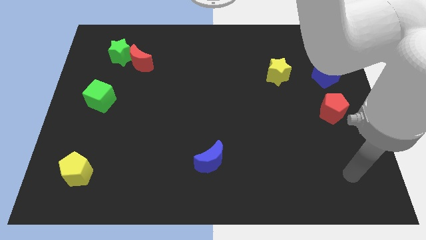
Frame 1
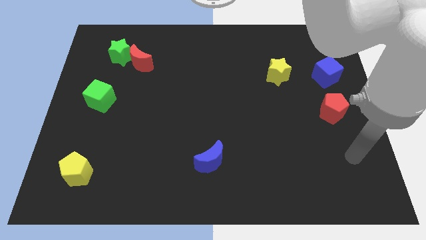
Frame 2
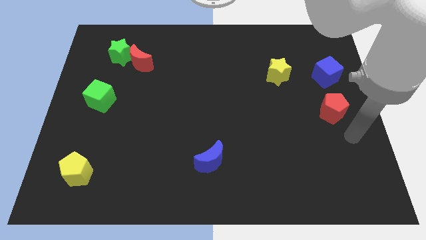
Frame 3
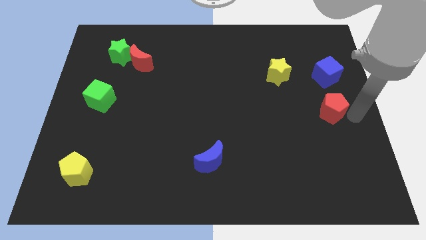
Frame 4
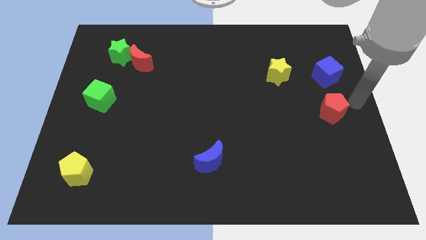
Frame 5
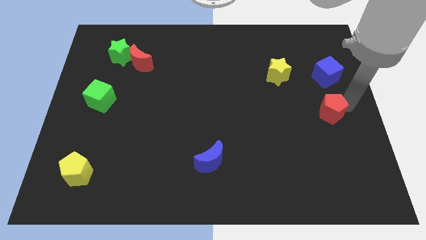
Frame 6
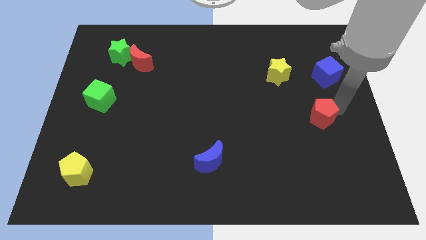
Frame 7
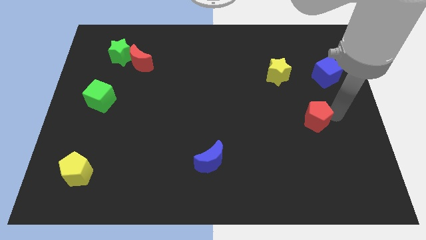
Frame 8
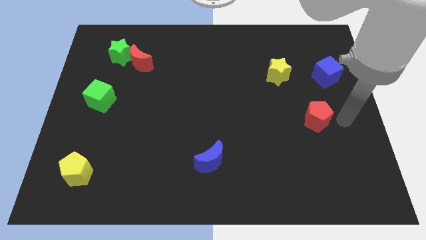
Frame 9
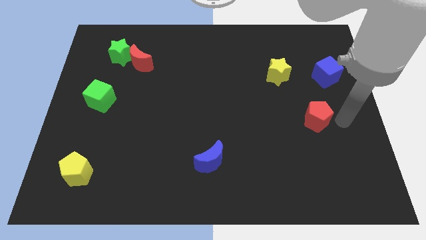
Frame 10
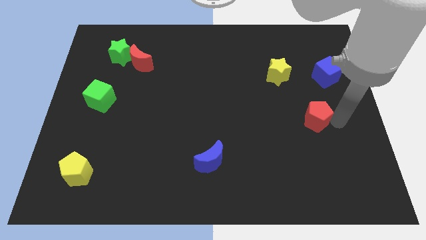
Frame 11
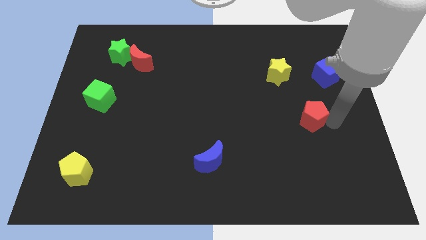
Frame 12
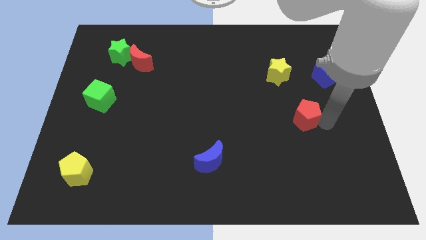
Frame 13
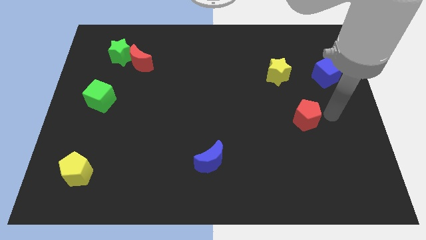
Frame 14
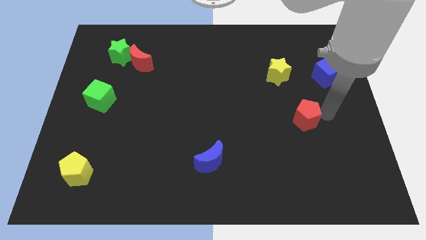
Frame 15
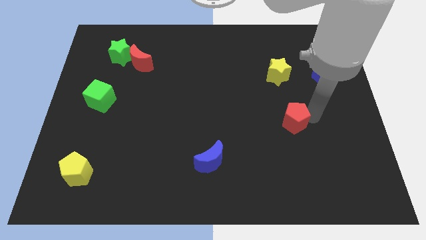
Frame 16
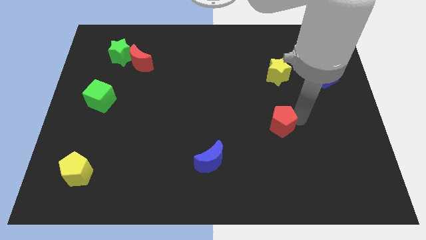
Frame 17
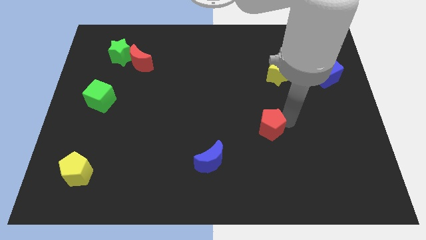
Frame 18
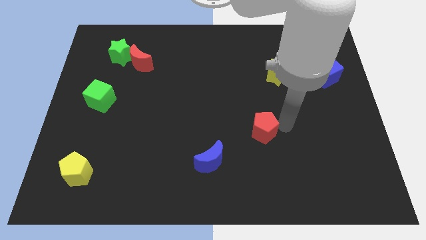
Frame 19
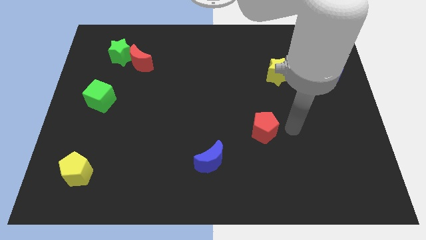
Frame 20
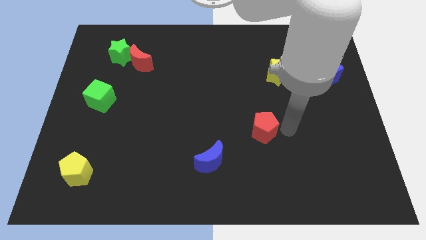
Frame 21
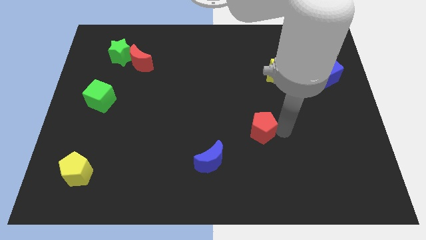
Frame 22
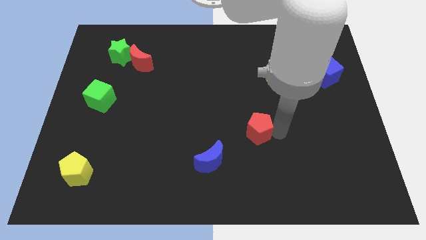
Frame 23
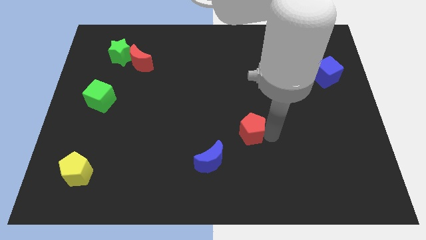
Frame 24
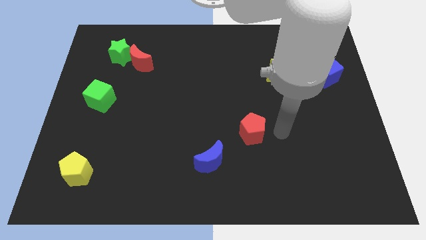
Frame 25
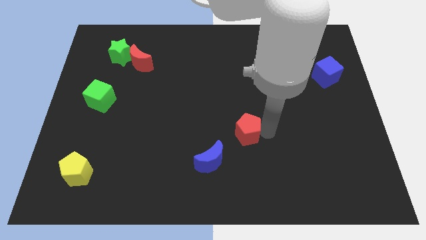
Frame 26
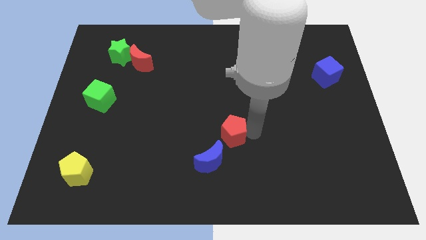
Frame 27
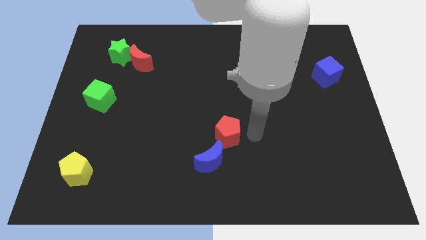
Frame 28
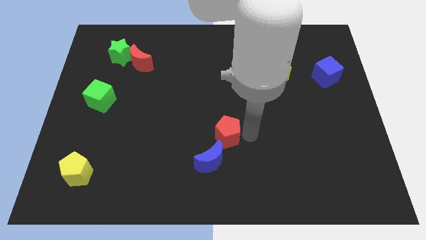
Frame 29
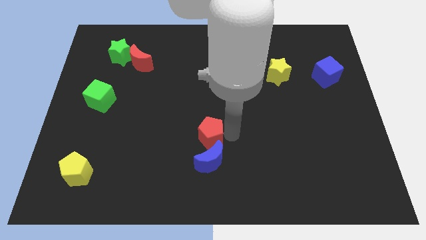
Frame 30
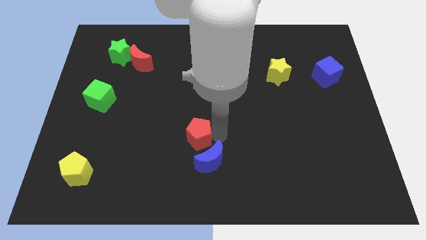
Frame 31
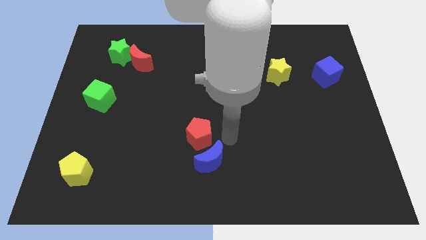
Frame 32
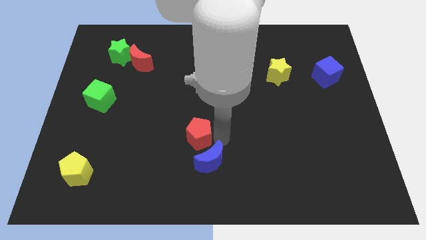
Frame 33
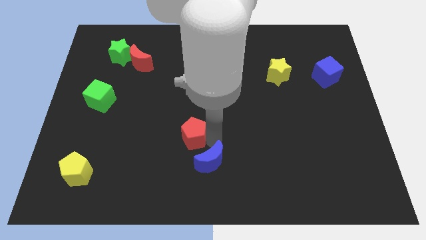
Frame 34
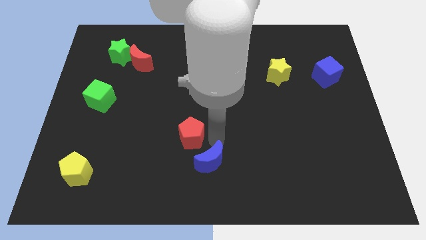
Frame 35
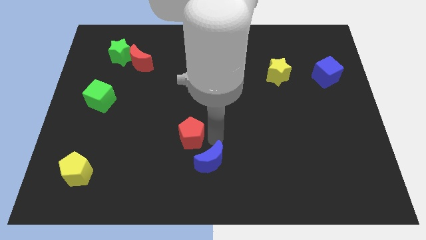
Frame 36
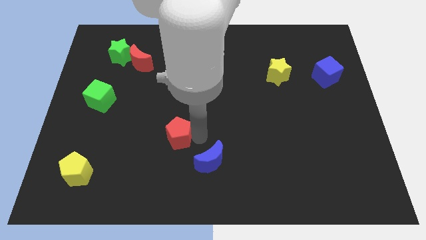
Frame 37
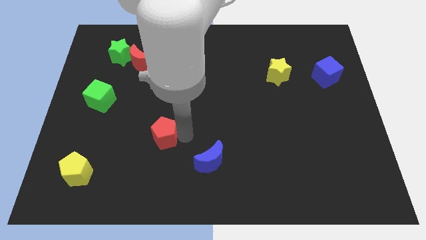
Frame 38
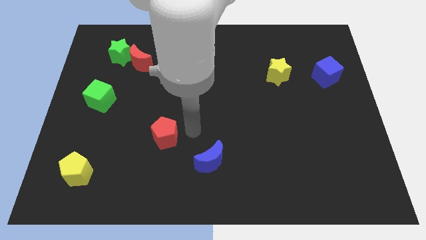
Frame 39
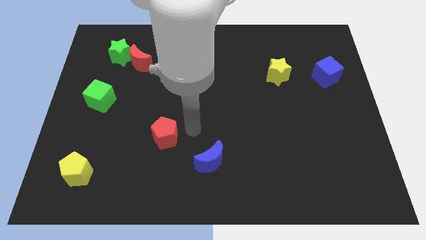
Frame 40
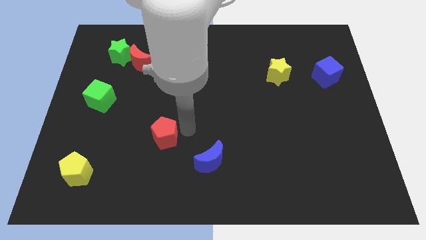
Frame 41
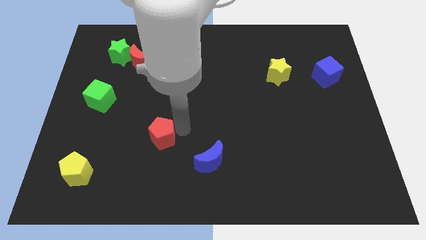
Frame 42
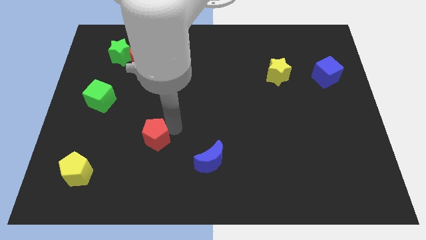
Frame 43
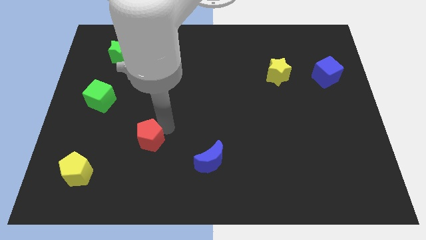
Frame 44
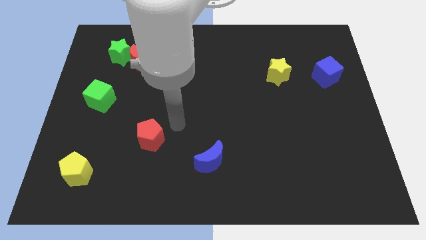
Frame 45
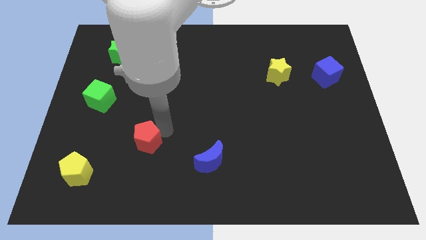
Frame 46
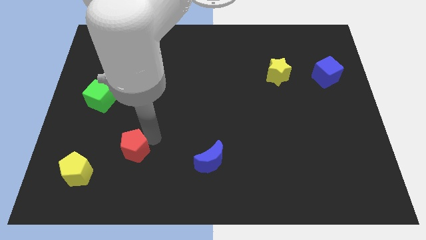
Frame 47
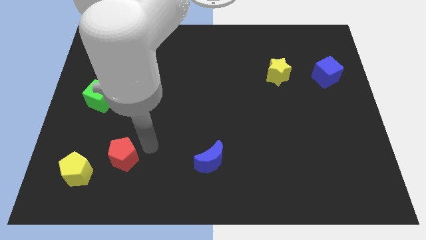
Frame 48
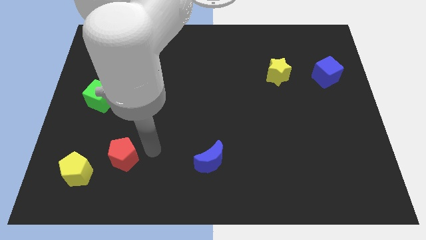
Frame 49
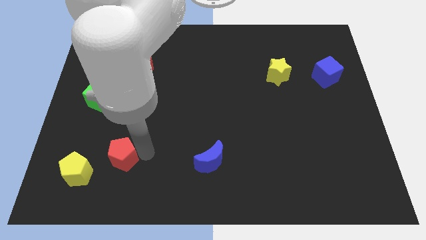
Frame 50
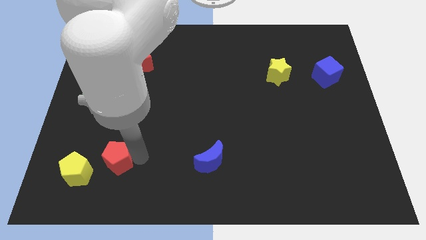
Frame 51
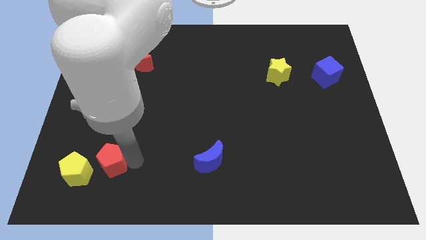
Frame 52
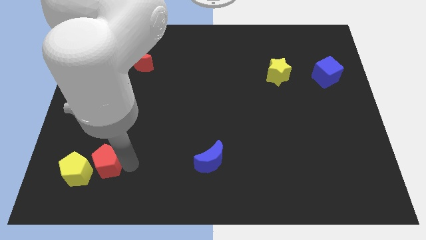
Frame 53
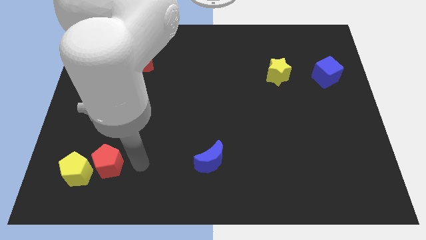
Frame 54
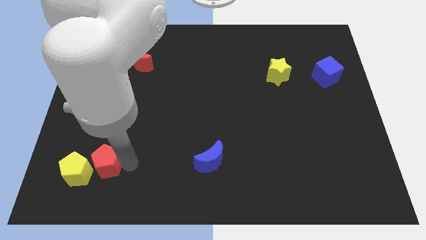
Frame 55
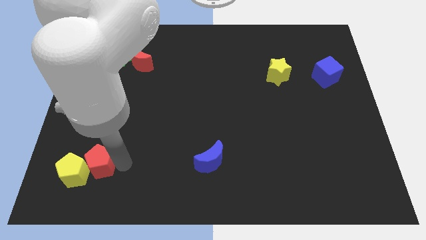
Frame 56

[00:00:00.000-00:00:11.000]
push the red pentagon close to the yellow pentagon

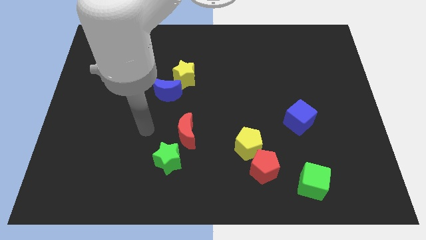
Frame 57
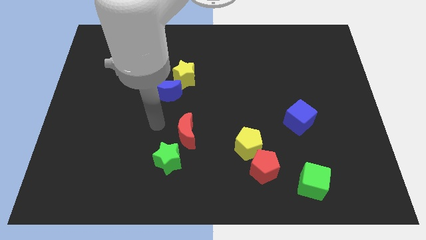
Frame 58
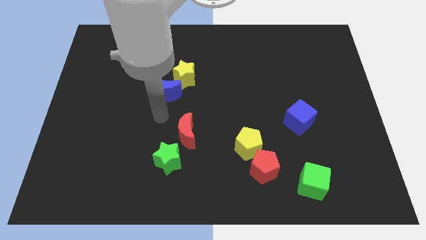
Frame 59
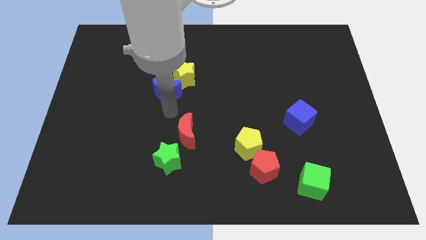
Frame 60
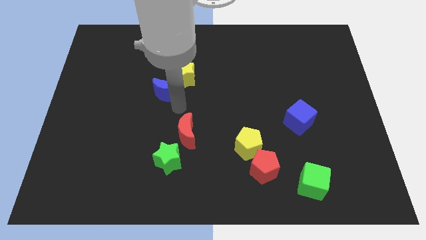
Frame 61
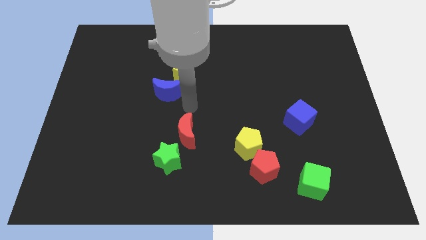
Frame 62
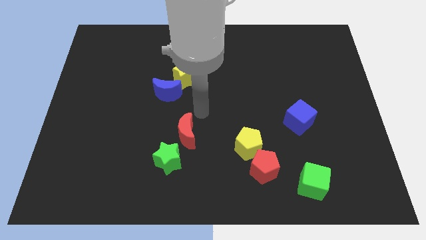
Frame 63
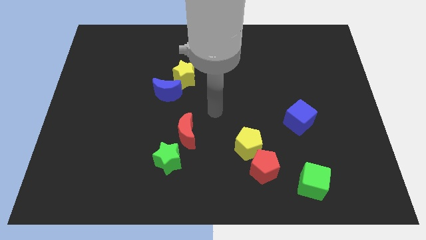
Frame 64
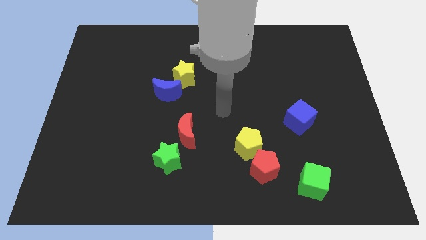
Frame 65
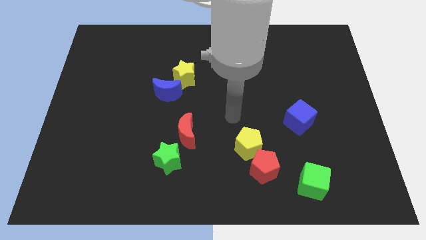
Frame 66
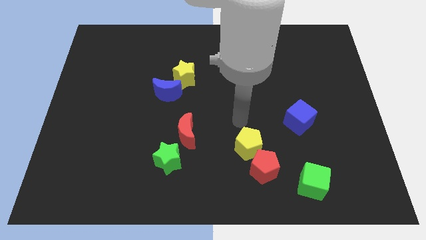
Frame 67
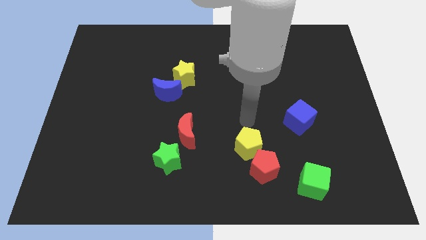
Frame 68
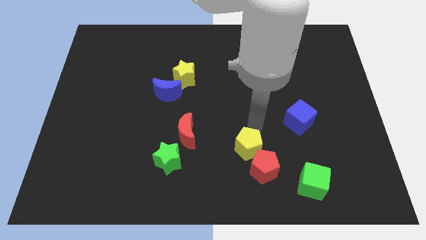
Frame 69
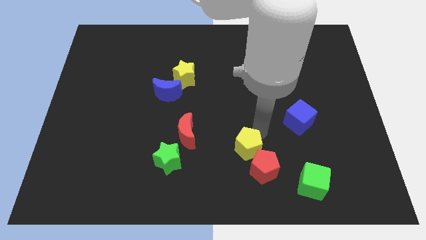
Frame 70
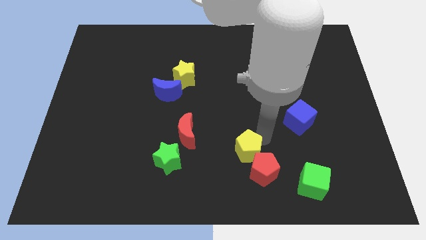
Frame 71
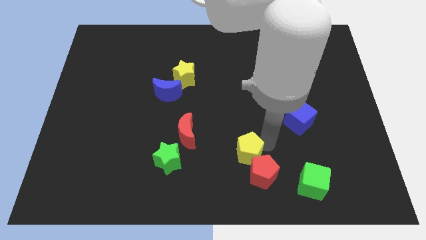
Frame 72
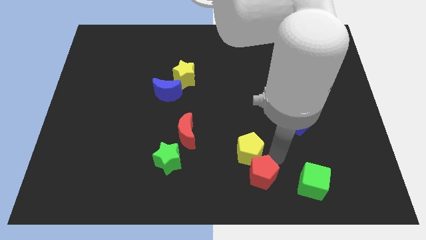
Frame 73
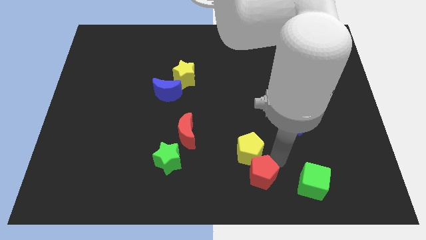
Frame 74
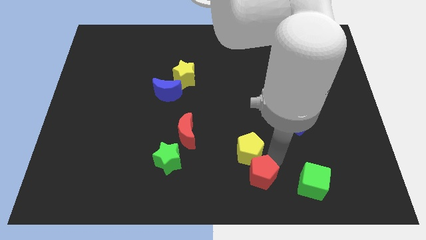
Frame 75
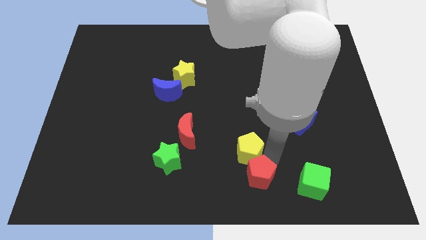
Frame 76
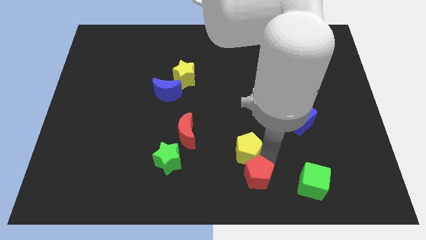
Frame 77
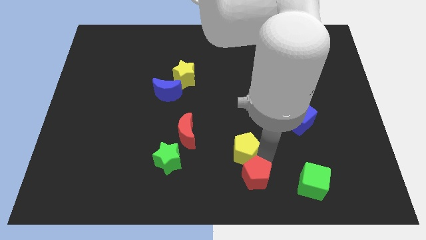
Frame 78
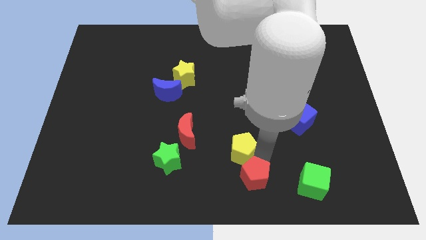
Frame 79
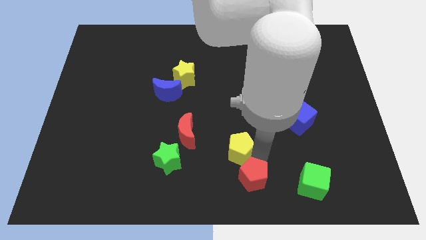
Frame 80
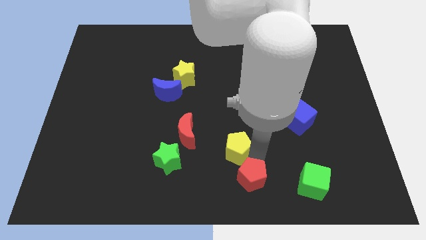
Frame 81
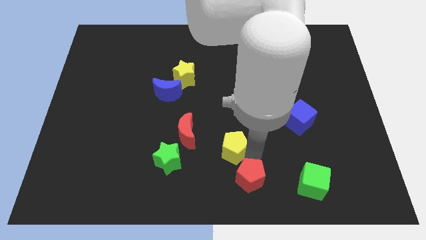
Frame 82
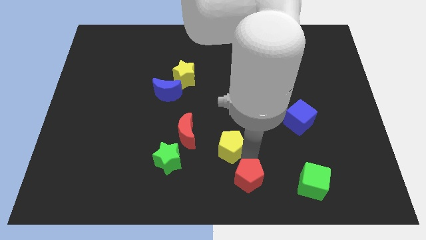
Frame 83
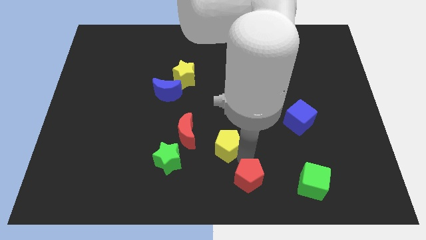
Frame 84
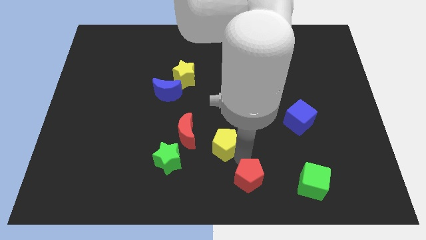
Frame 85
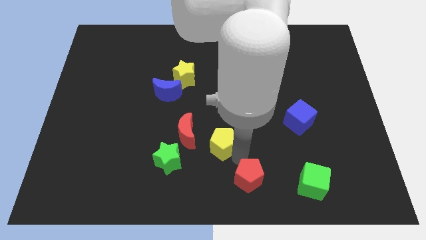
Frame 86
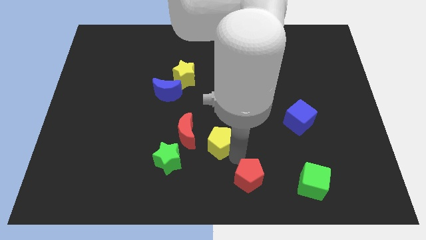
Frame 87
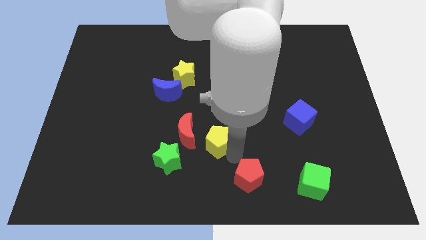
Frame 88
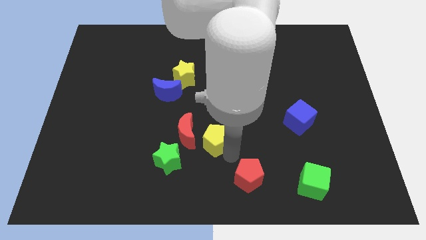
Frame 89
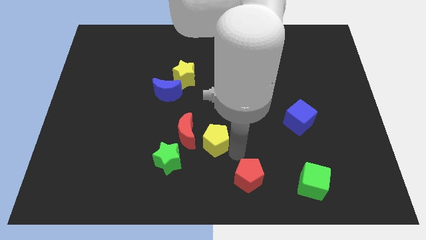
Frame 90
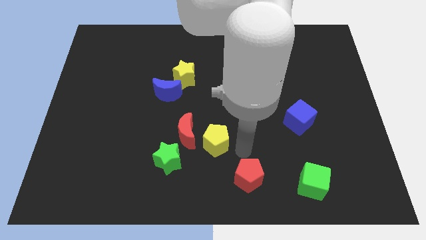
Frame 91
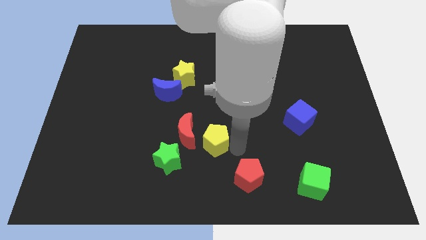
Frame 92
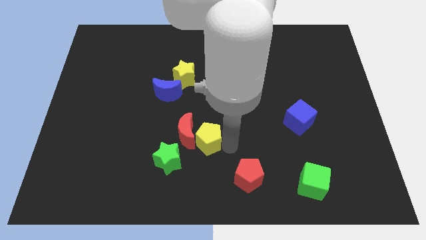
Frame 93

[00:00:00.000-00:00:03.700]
move the yellow pentagon to the red moon
